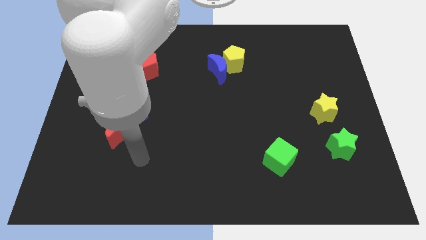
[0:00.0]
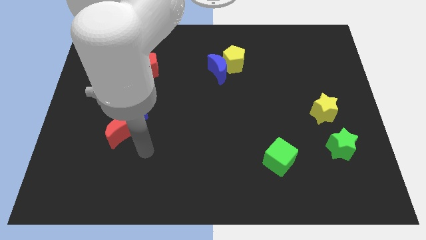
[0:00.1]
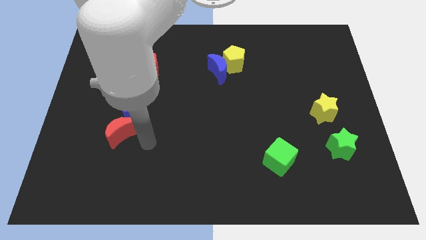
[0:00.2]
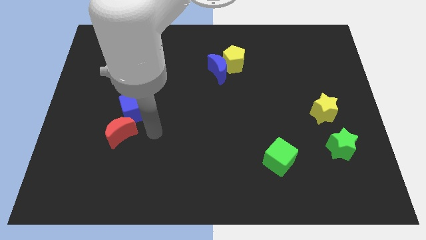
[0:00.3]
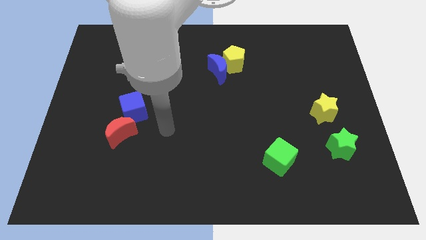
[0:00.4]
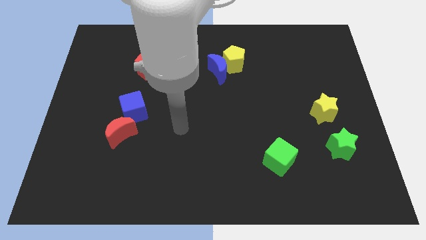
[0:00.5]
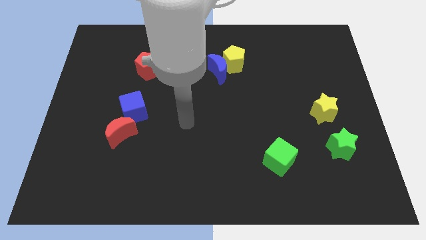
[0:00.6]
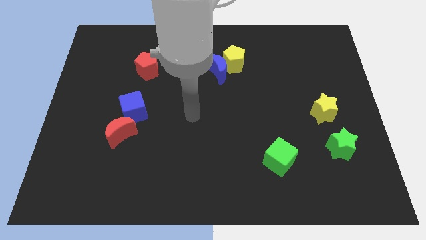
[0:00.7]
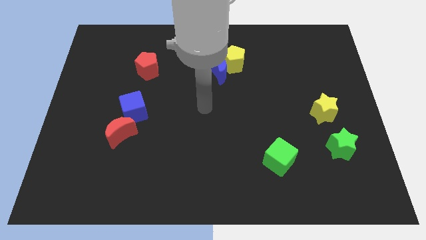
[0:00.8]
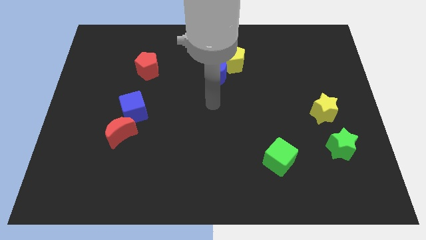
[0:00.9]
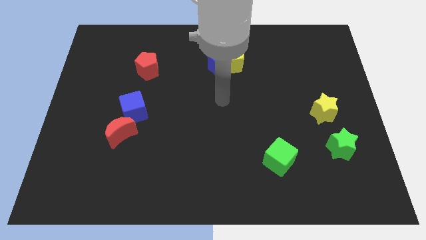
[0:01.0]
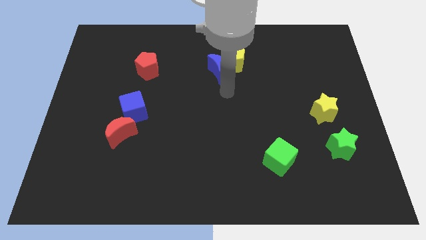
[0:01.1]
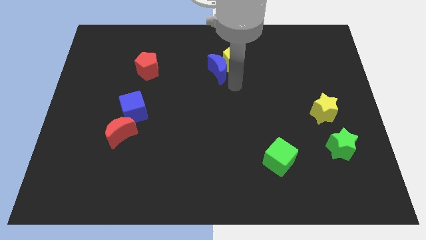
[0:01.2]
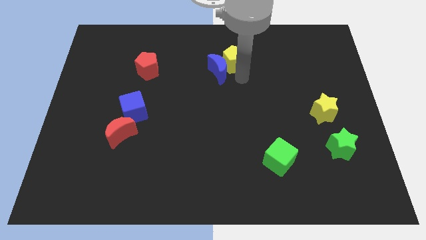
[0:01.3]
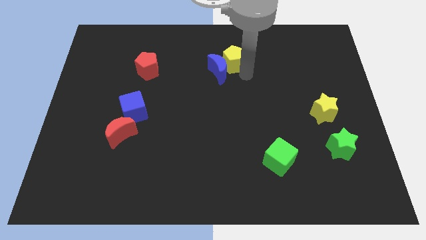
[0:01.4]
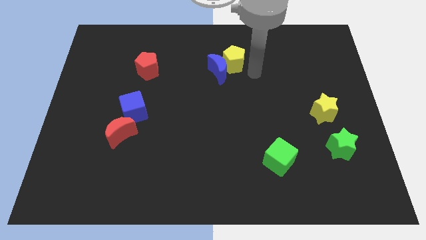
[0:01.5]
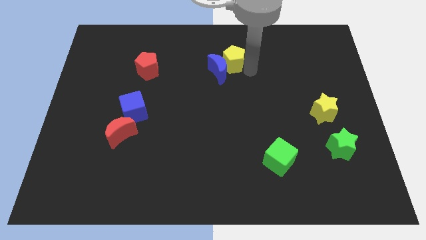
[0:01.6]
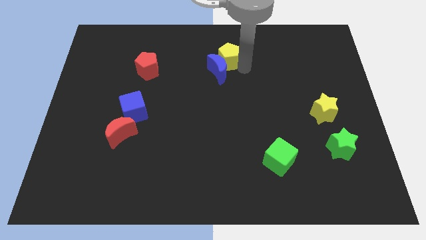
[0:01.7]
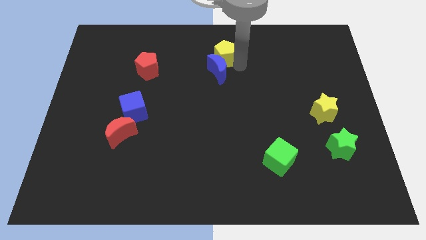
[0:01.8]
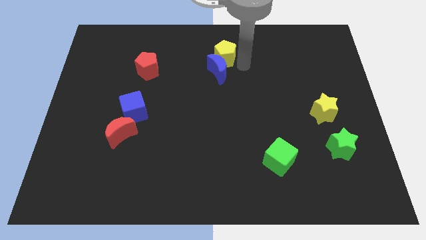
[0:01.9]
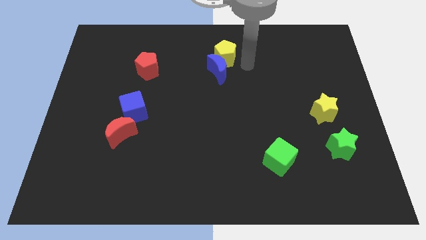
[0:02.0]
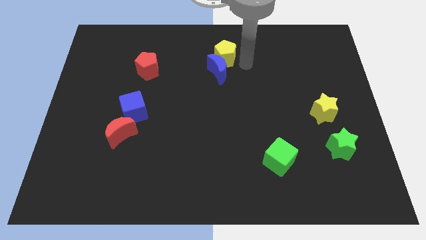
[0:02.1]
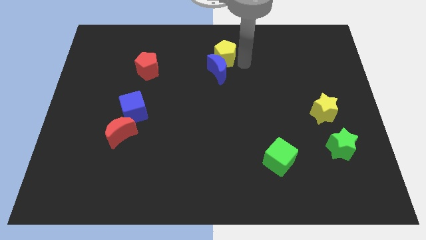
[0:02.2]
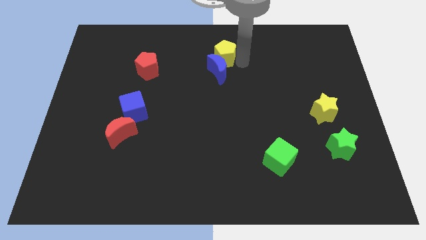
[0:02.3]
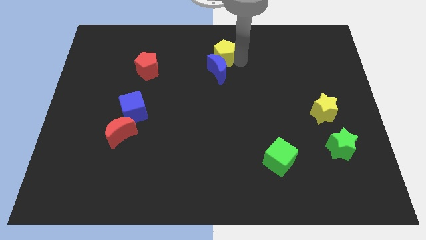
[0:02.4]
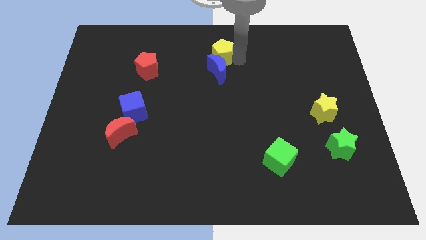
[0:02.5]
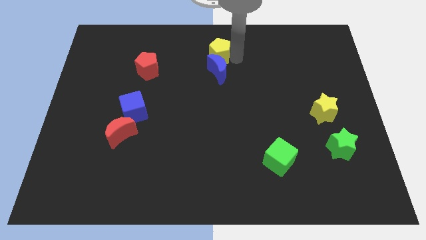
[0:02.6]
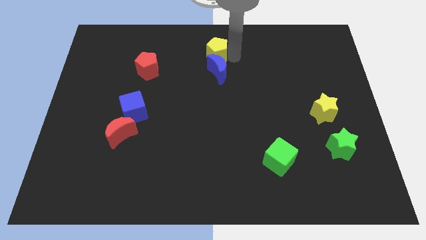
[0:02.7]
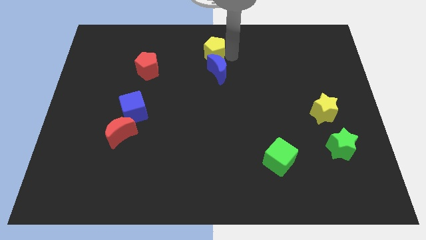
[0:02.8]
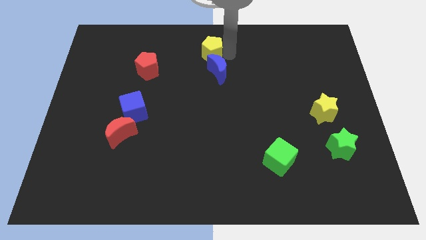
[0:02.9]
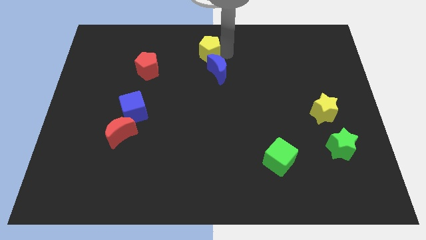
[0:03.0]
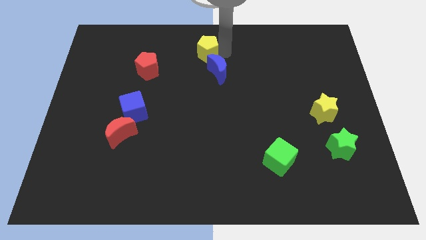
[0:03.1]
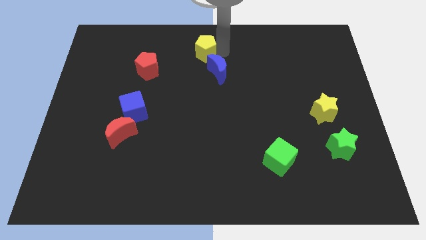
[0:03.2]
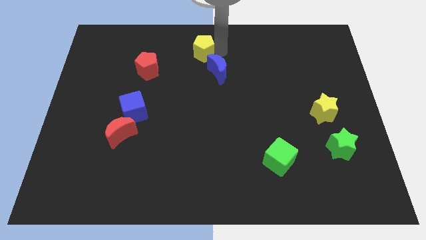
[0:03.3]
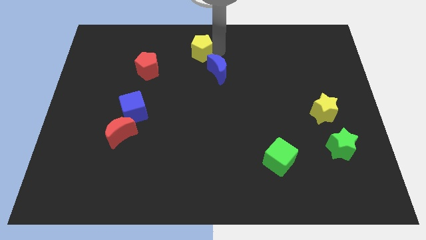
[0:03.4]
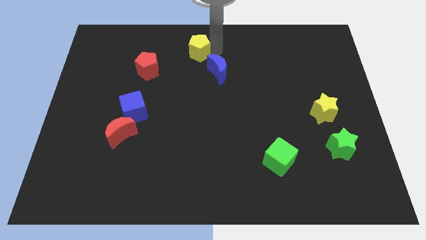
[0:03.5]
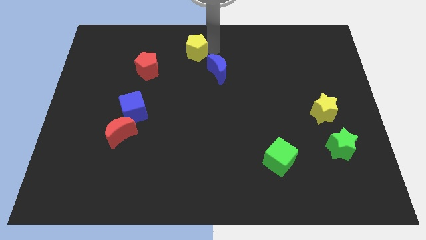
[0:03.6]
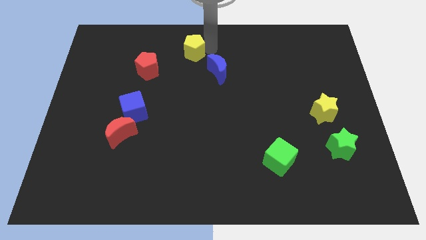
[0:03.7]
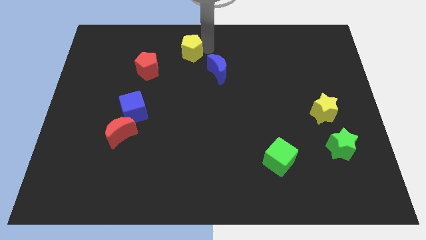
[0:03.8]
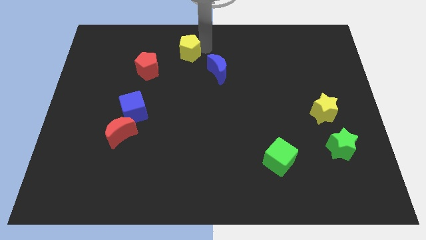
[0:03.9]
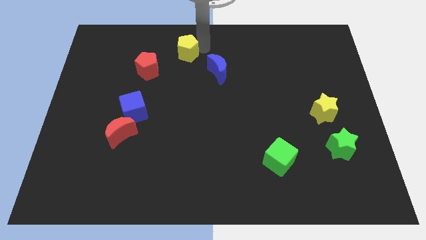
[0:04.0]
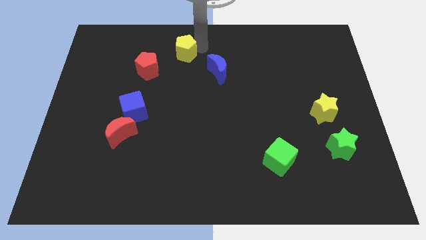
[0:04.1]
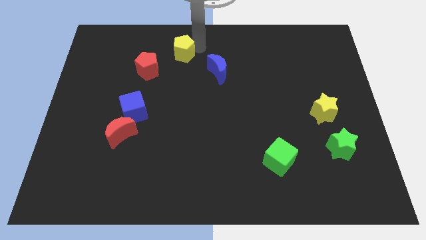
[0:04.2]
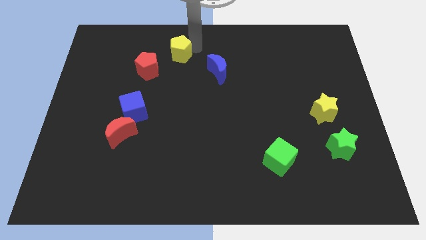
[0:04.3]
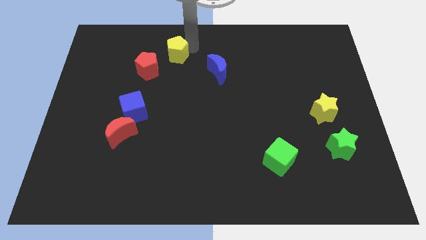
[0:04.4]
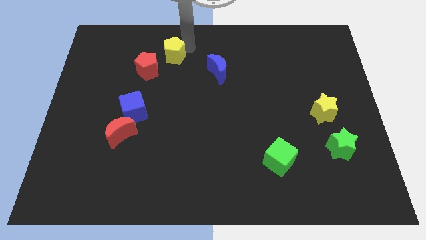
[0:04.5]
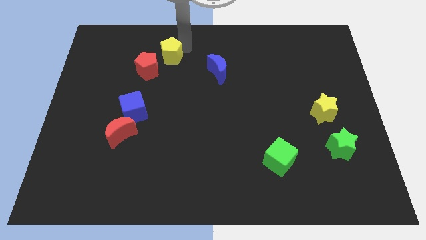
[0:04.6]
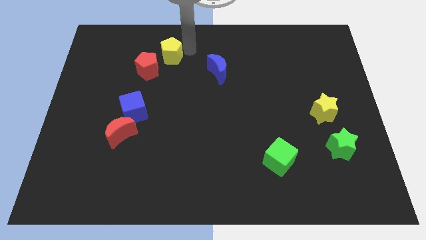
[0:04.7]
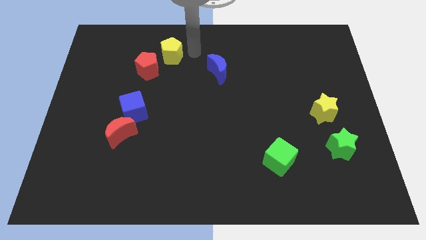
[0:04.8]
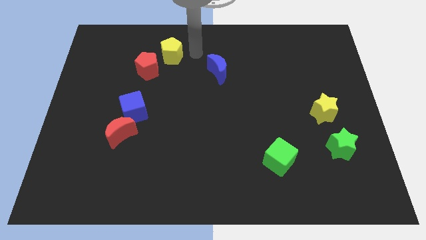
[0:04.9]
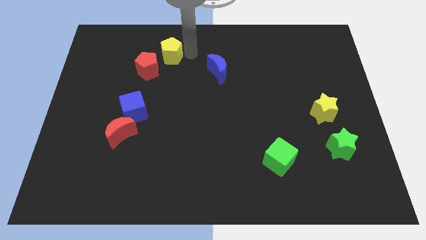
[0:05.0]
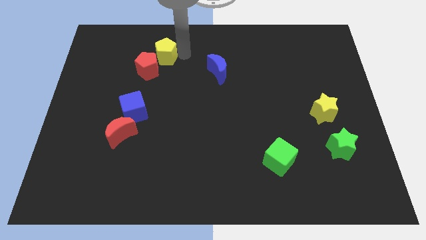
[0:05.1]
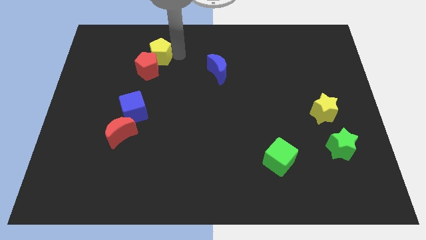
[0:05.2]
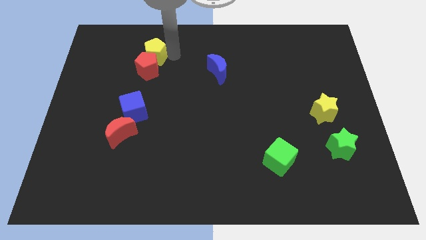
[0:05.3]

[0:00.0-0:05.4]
push the yellow pentagon left

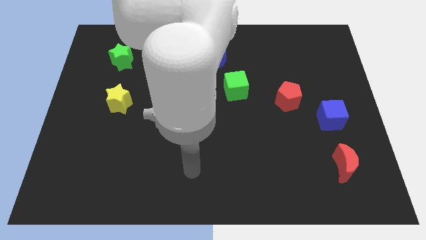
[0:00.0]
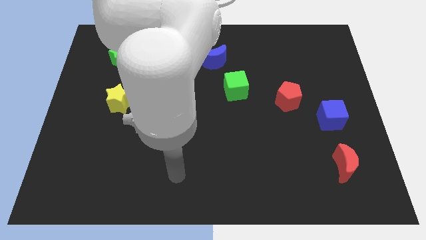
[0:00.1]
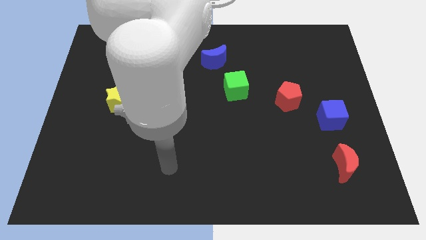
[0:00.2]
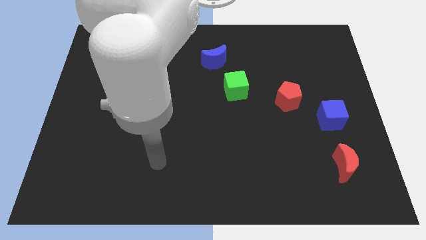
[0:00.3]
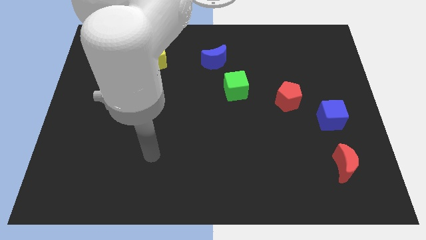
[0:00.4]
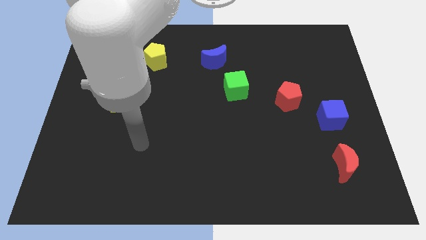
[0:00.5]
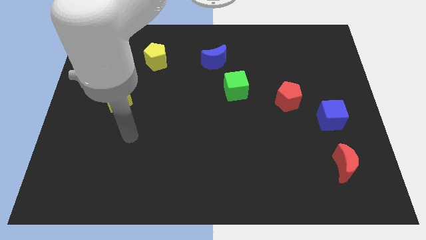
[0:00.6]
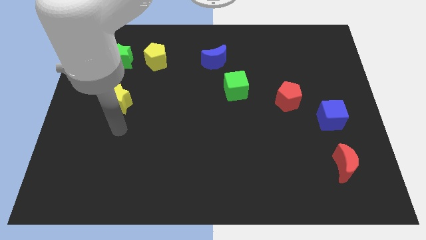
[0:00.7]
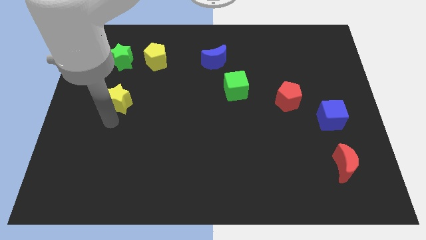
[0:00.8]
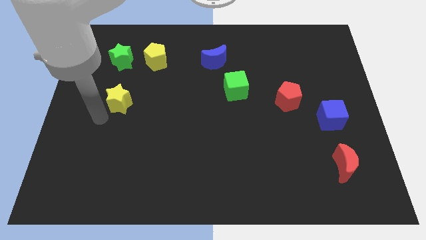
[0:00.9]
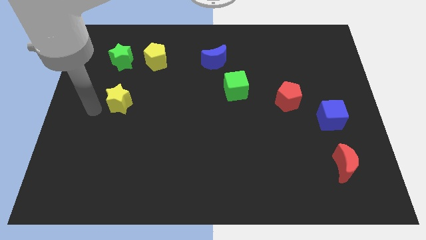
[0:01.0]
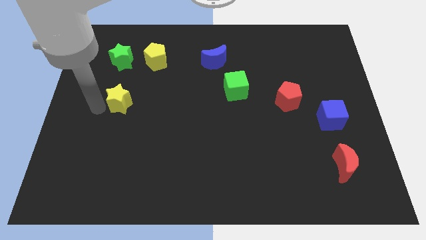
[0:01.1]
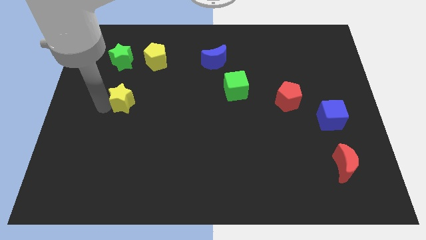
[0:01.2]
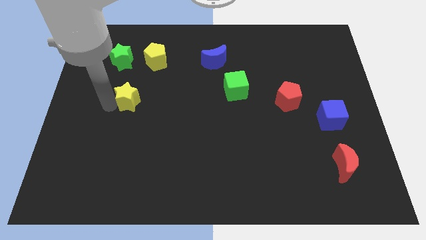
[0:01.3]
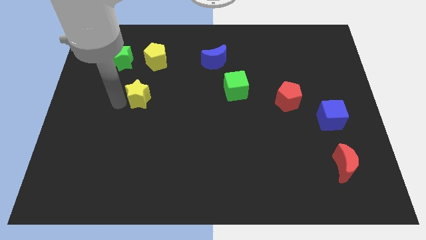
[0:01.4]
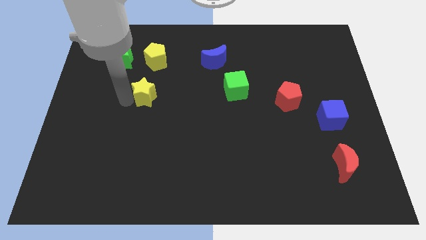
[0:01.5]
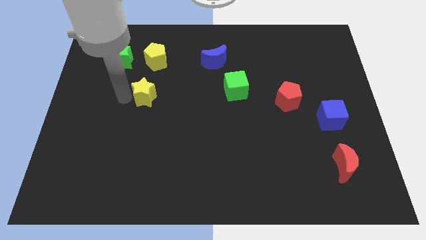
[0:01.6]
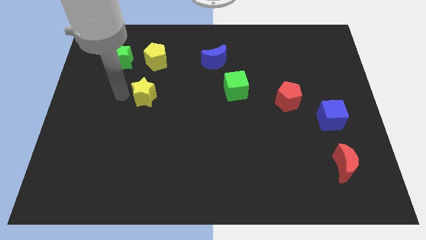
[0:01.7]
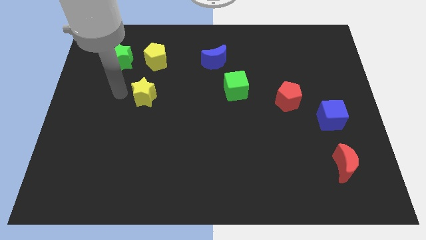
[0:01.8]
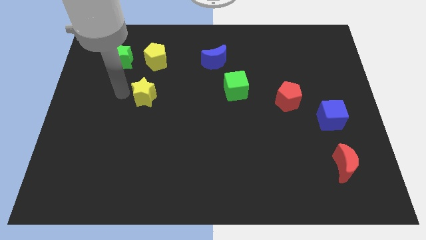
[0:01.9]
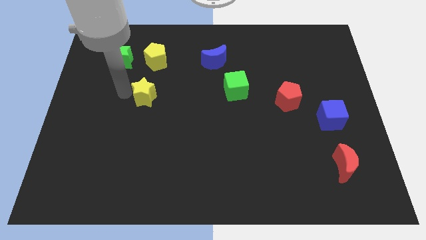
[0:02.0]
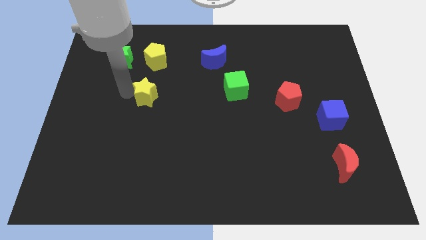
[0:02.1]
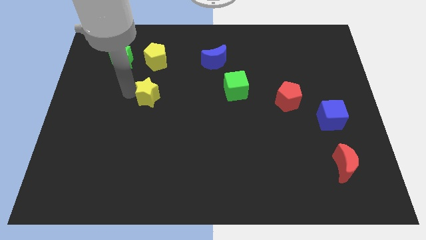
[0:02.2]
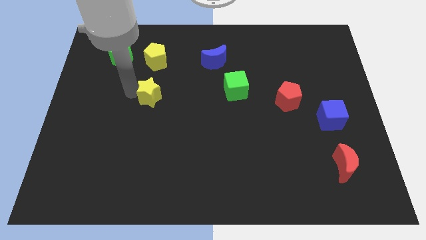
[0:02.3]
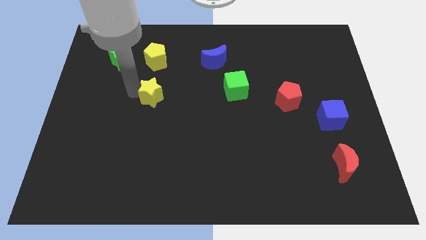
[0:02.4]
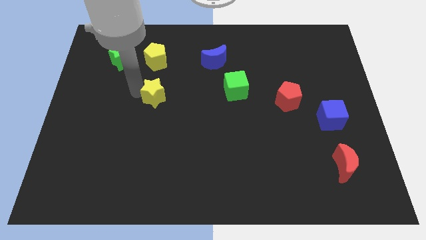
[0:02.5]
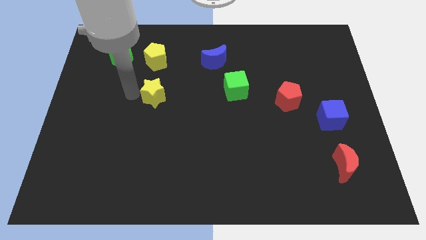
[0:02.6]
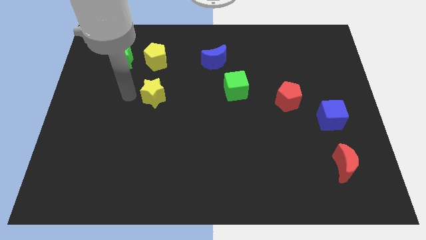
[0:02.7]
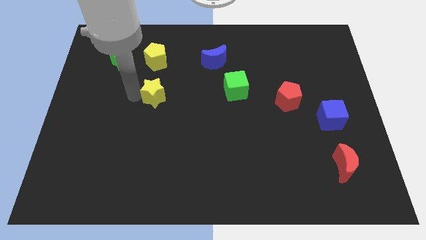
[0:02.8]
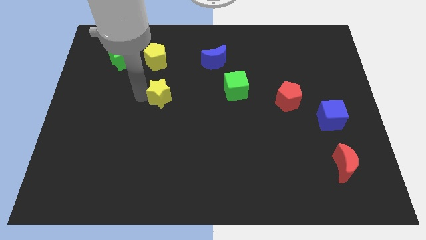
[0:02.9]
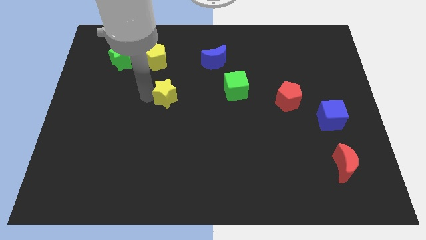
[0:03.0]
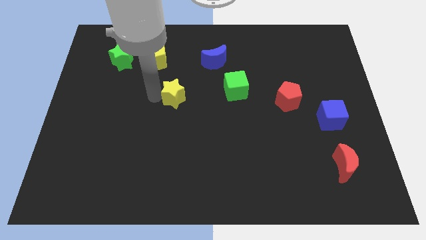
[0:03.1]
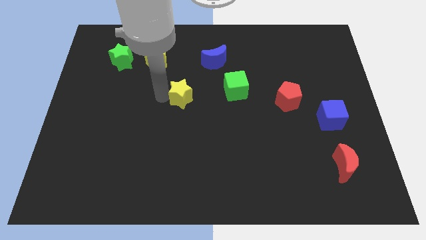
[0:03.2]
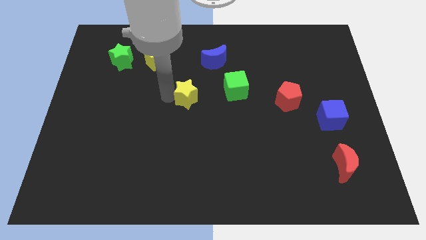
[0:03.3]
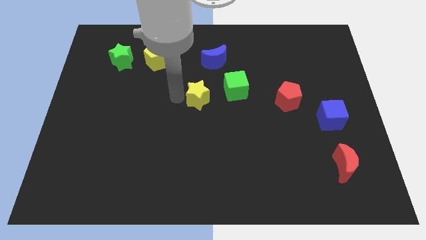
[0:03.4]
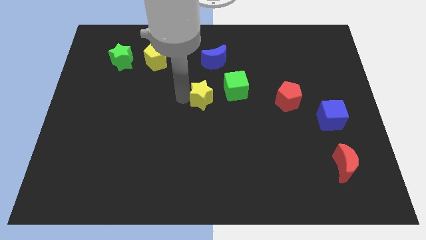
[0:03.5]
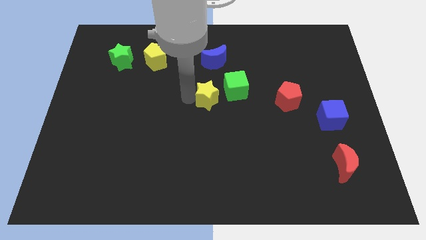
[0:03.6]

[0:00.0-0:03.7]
push the yellow star to the right
